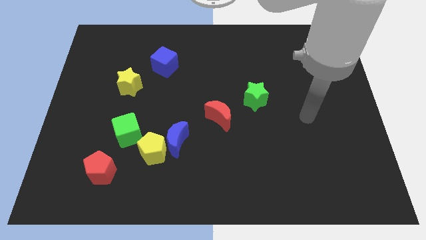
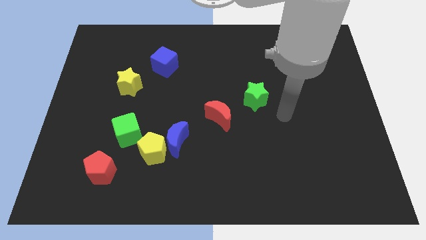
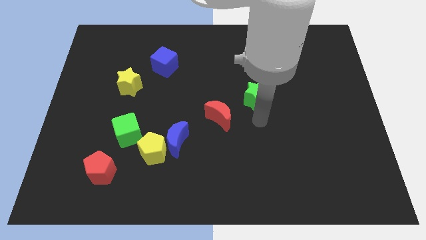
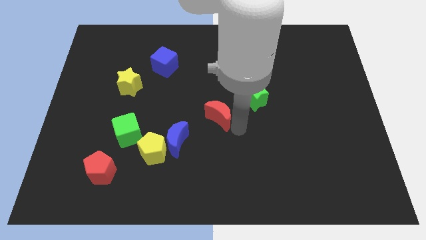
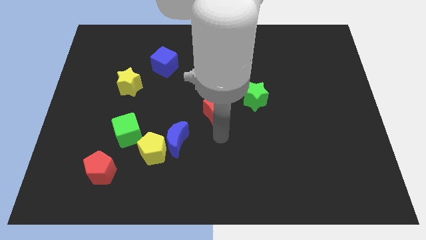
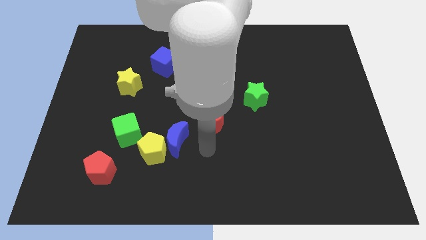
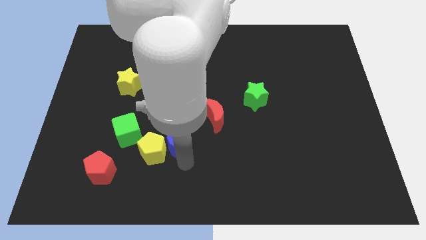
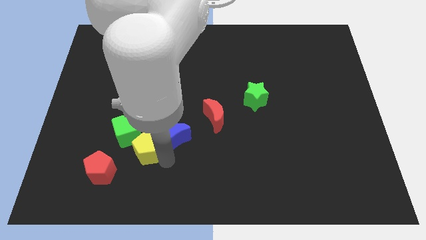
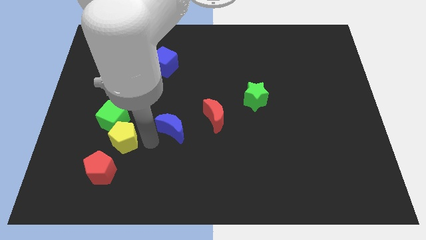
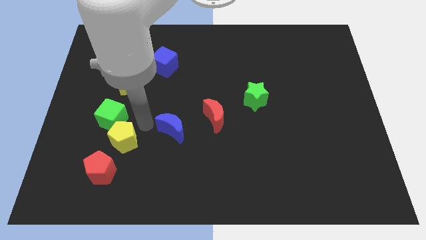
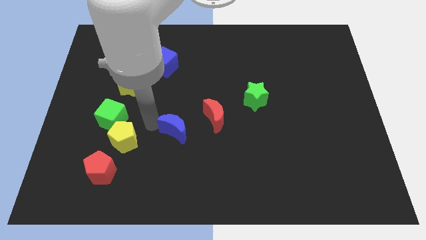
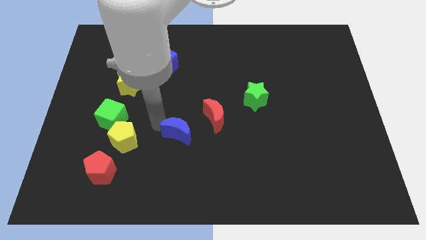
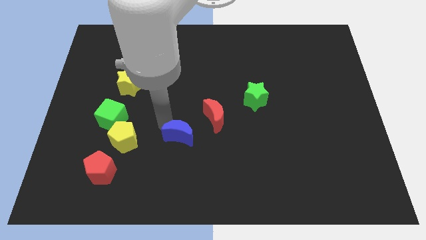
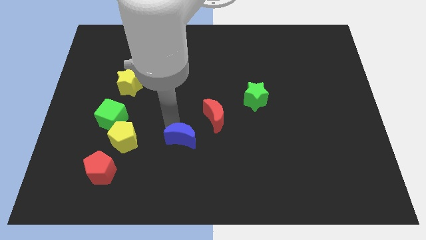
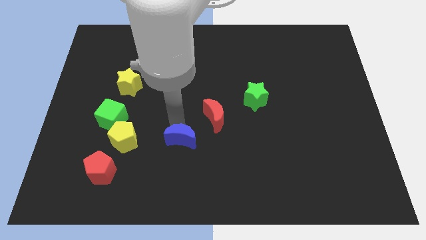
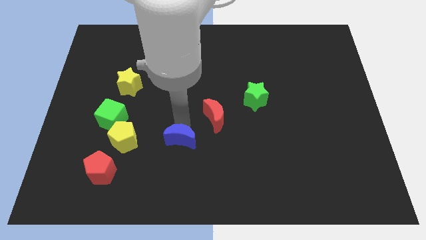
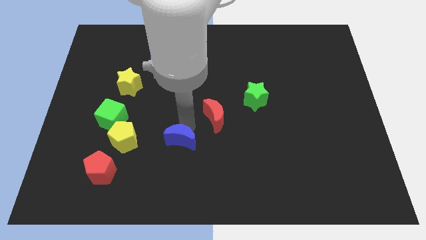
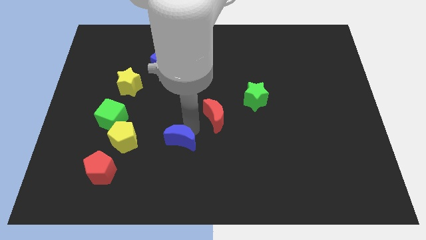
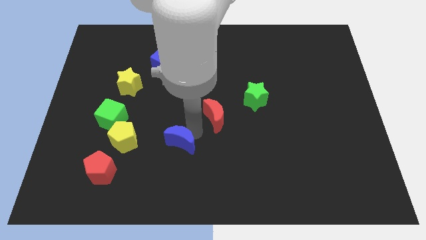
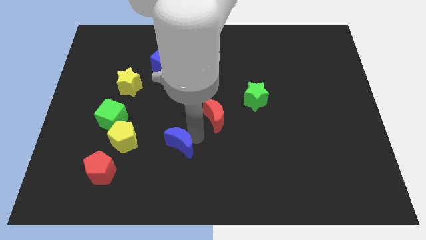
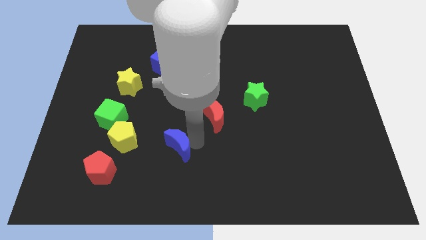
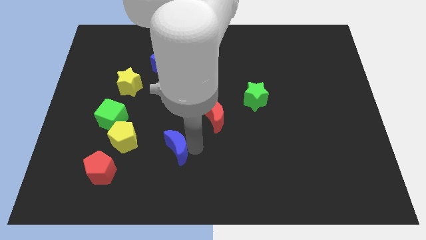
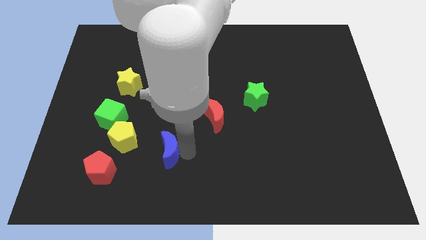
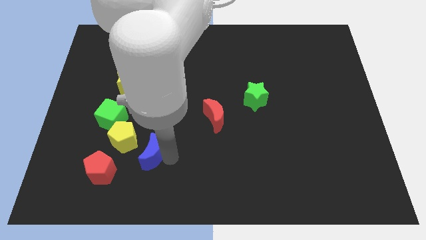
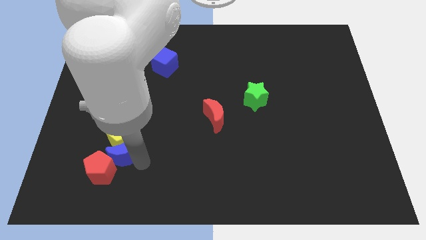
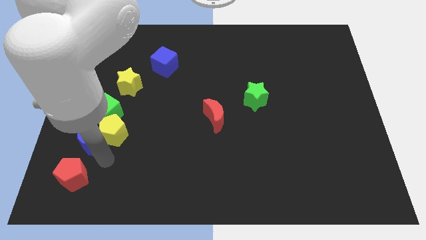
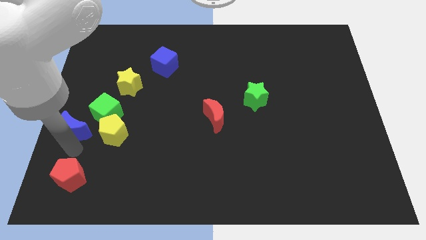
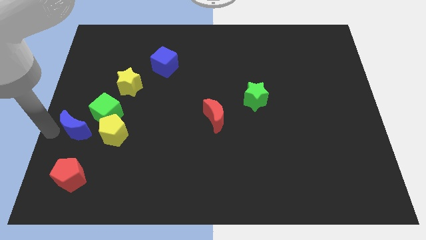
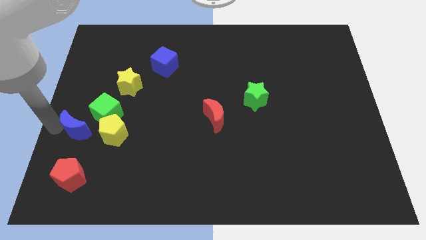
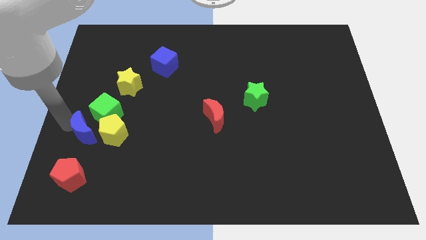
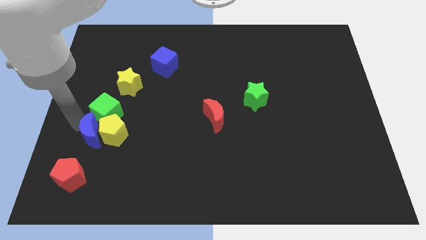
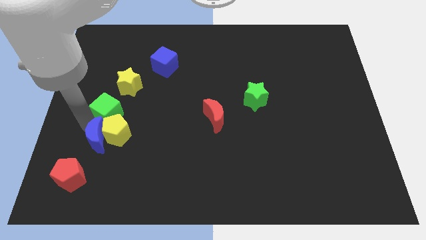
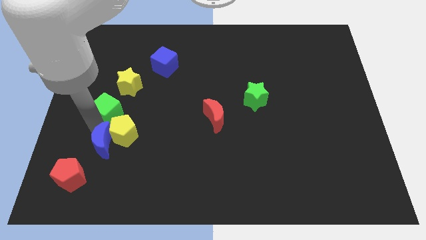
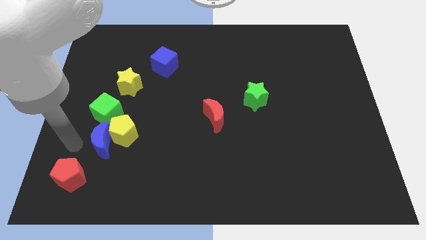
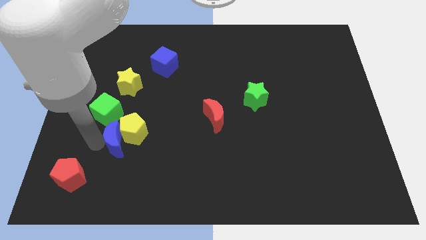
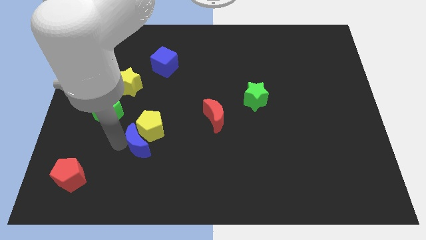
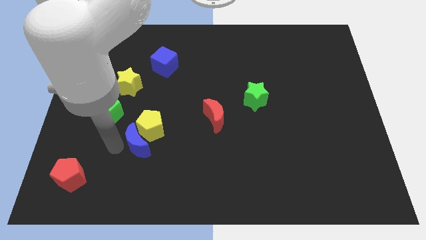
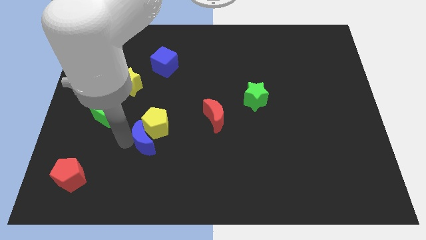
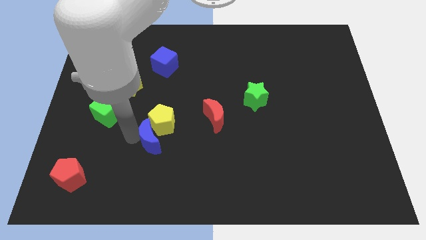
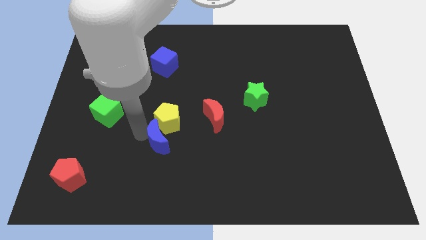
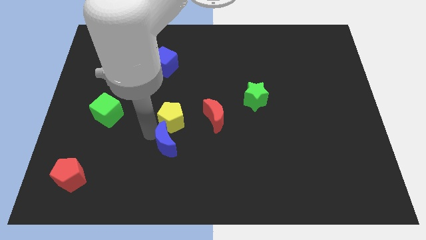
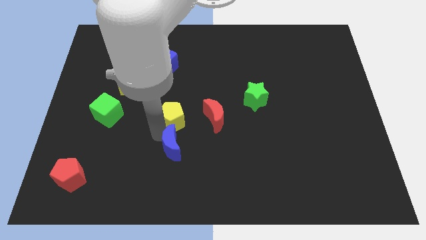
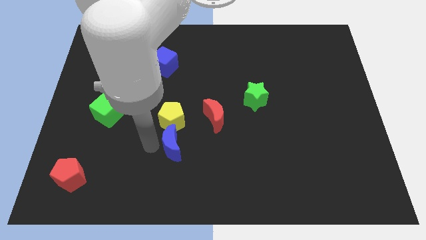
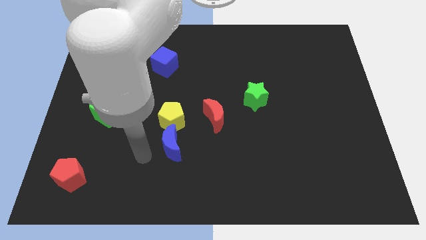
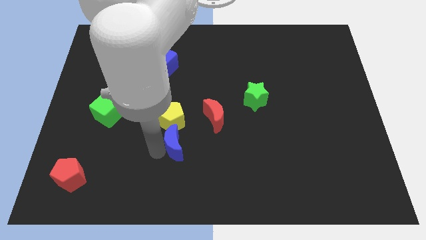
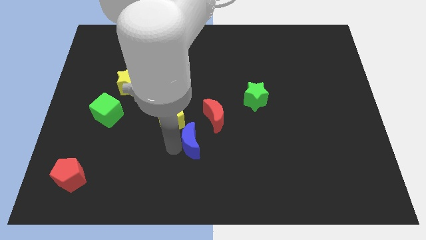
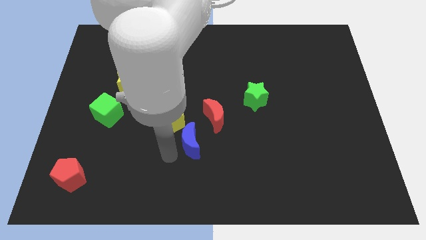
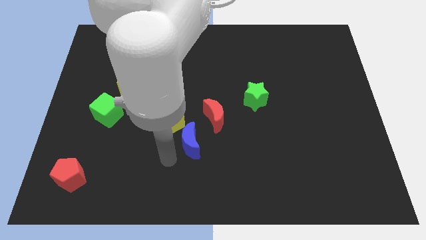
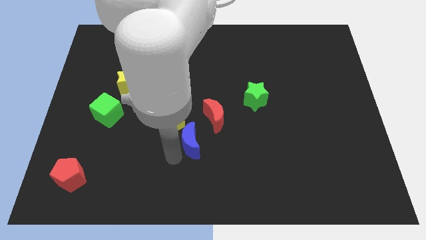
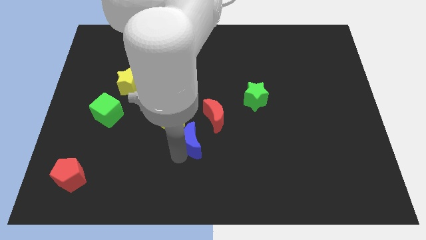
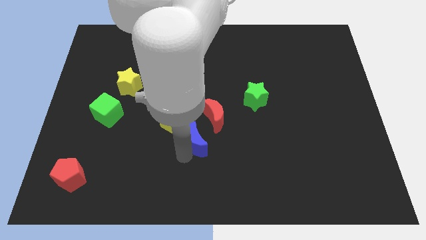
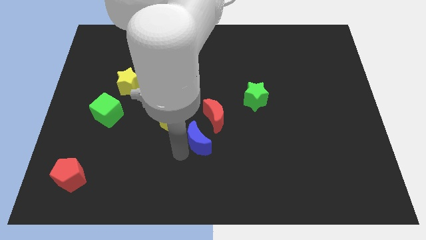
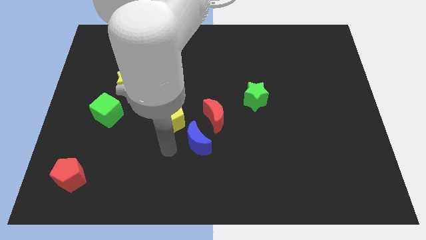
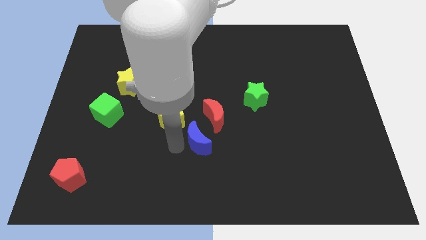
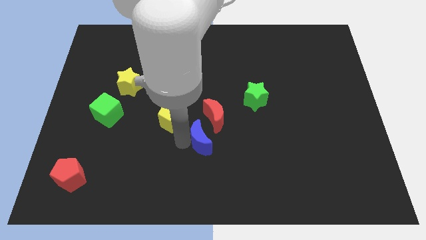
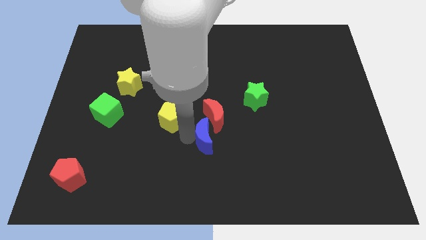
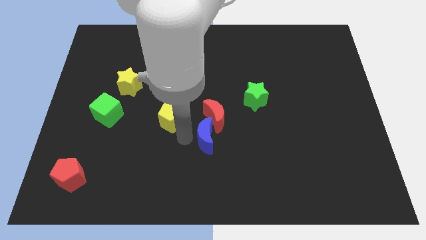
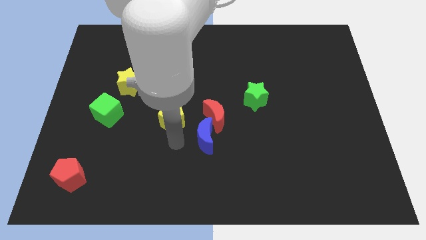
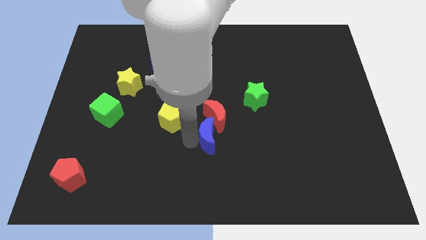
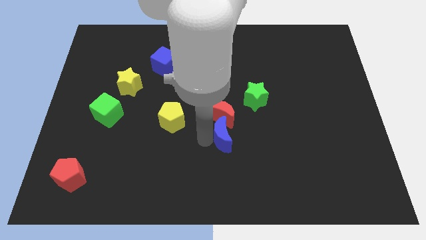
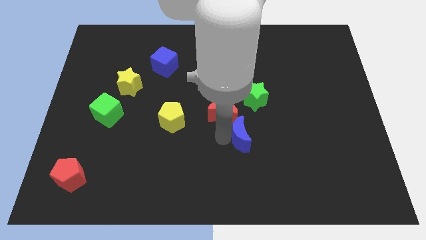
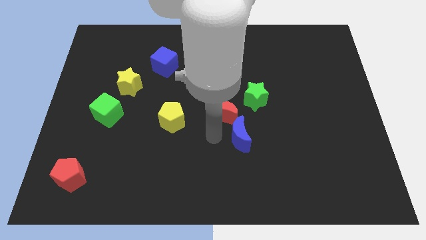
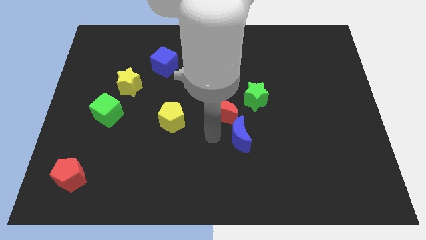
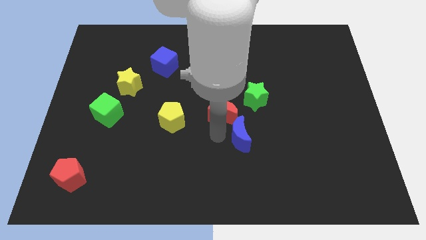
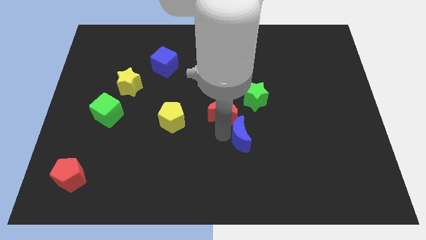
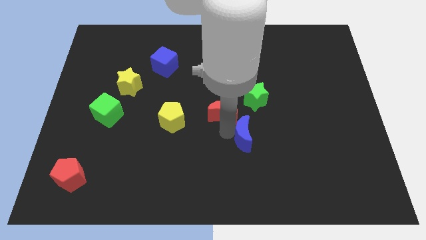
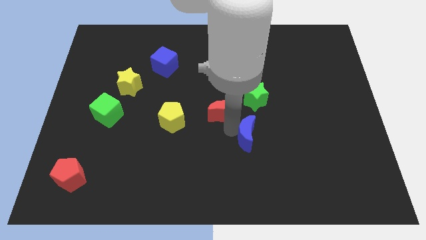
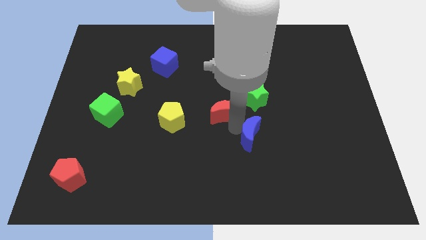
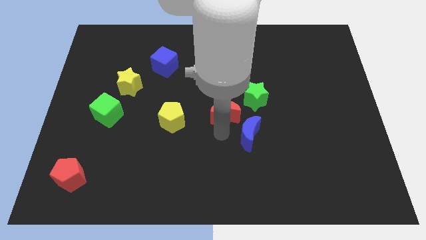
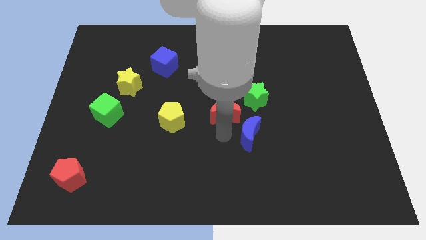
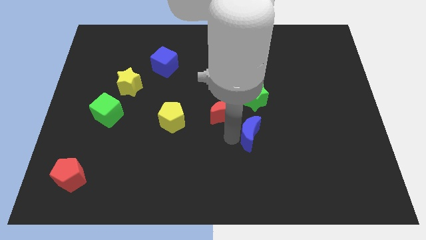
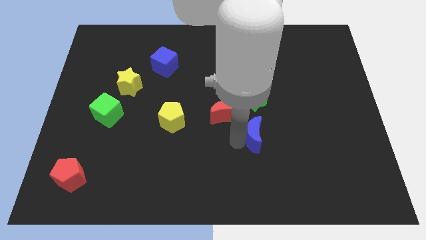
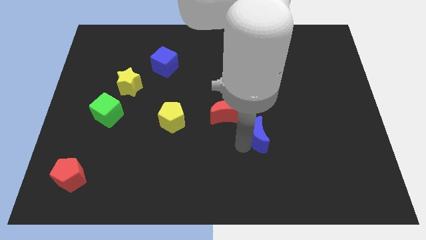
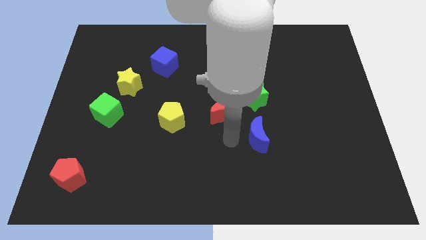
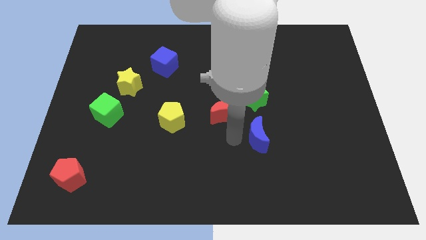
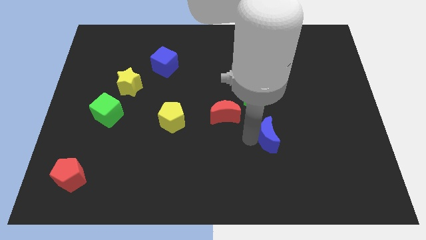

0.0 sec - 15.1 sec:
slide the blue moon right
